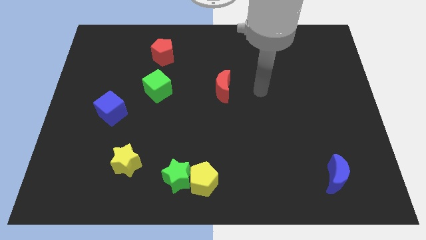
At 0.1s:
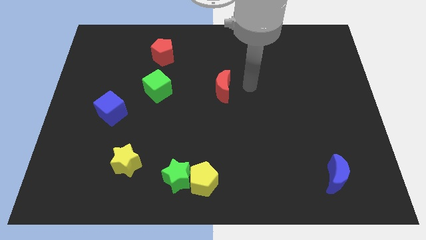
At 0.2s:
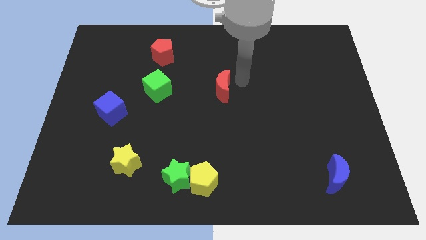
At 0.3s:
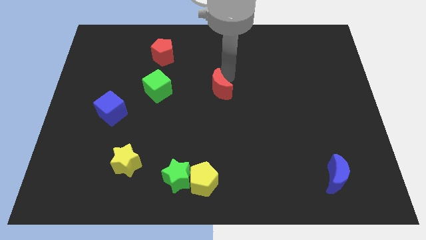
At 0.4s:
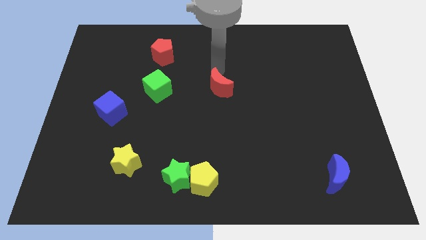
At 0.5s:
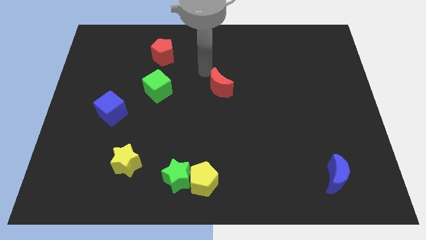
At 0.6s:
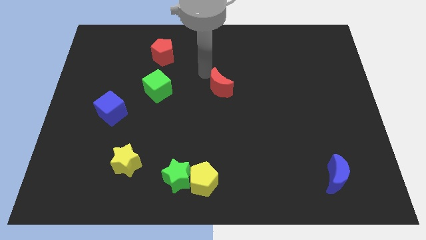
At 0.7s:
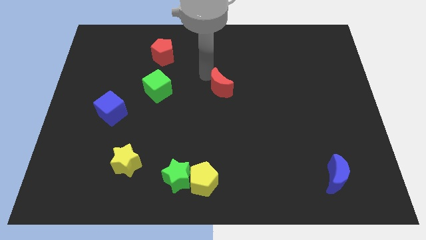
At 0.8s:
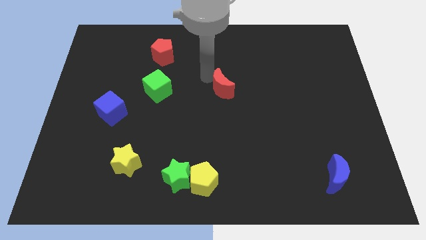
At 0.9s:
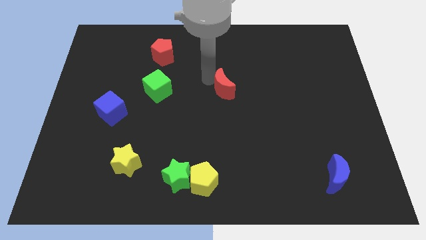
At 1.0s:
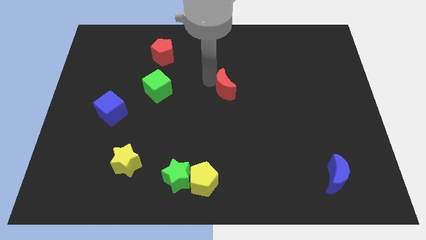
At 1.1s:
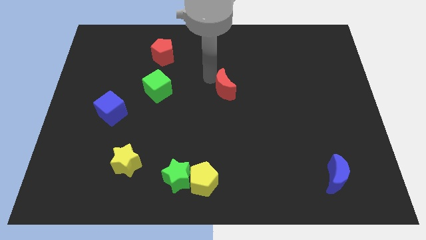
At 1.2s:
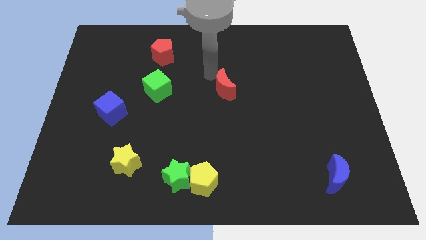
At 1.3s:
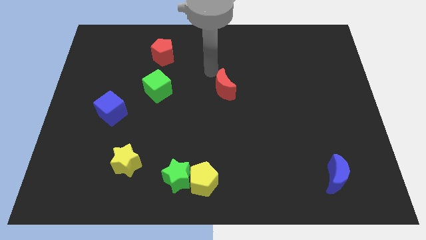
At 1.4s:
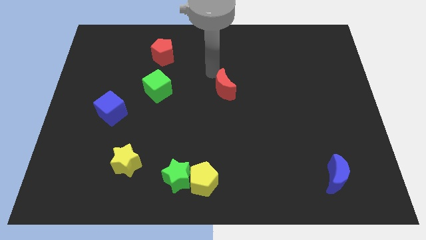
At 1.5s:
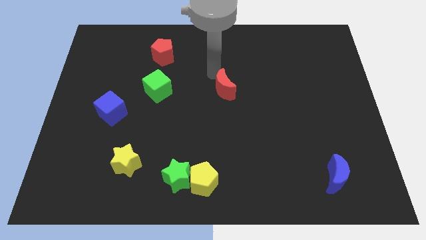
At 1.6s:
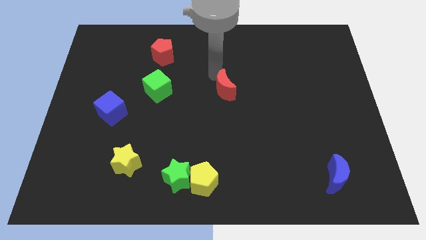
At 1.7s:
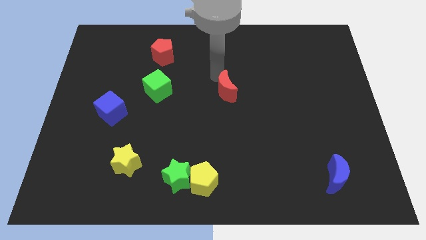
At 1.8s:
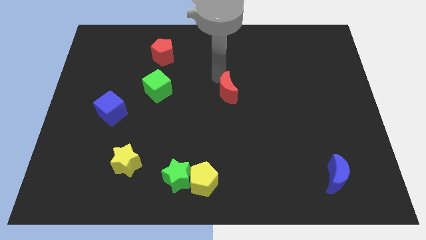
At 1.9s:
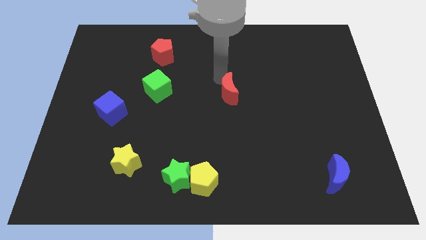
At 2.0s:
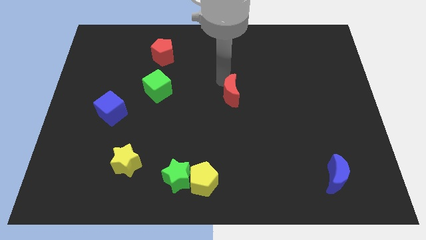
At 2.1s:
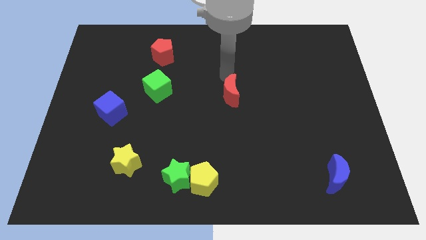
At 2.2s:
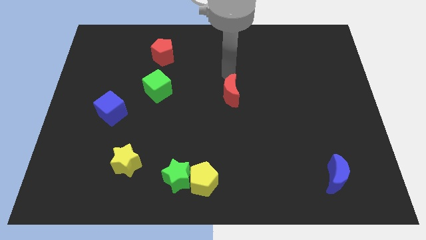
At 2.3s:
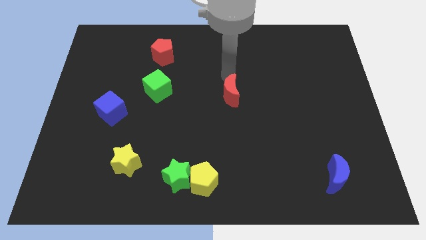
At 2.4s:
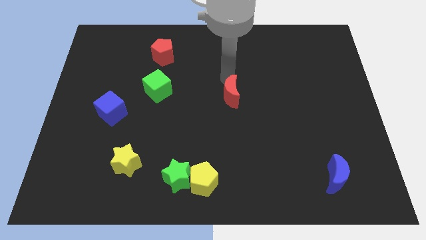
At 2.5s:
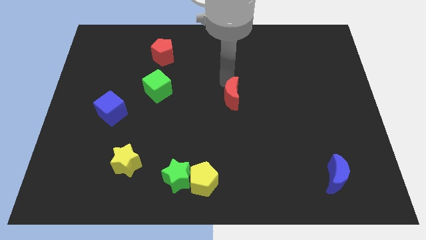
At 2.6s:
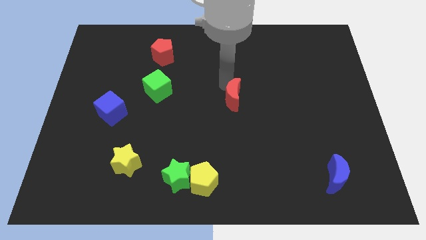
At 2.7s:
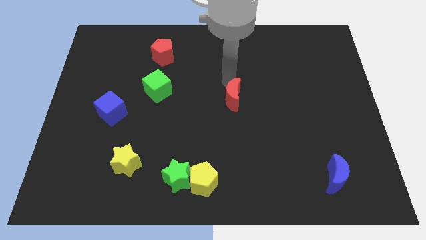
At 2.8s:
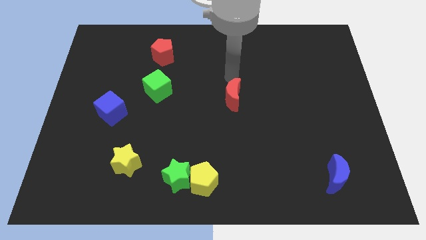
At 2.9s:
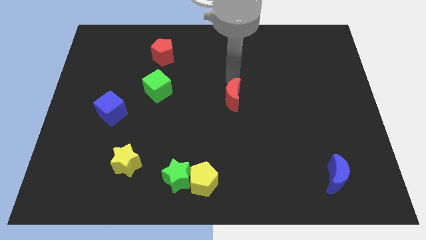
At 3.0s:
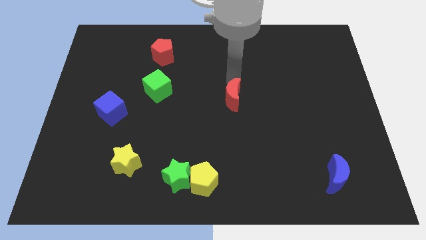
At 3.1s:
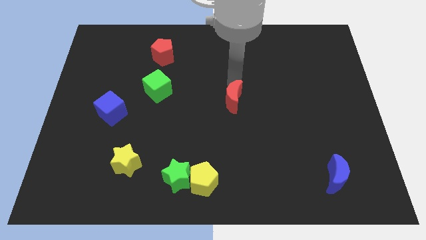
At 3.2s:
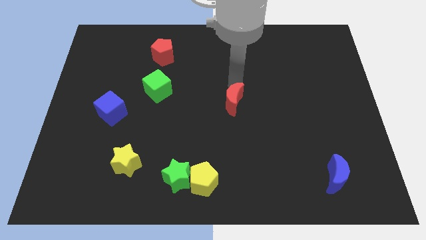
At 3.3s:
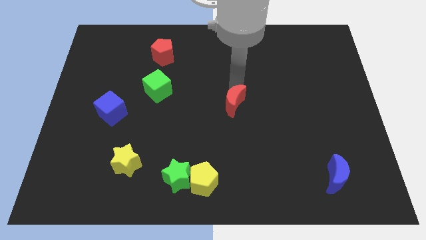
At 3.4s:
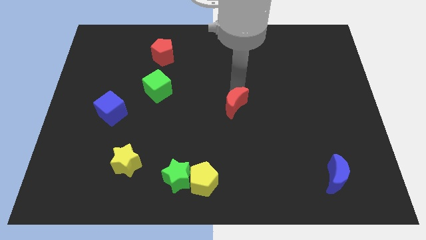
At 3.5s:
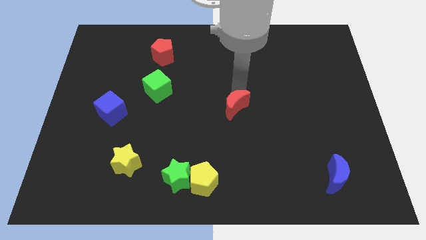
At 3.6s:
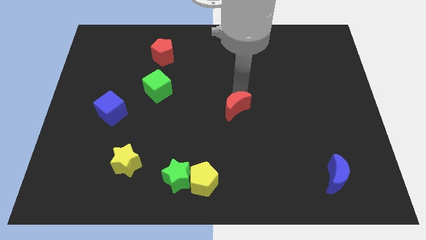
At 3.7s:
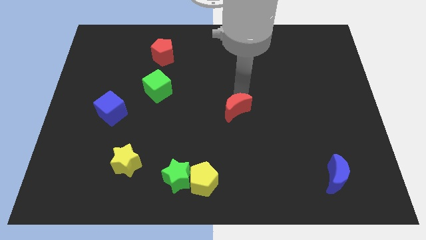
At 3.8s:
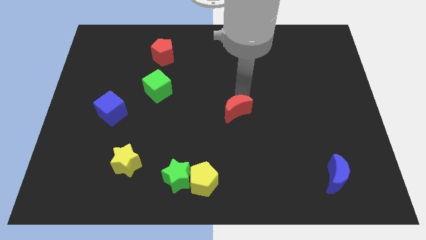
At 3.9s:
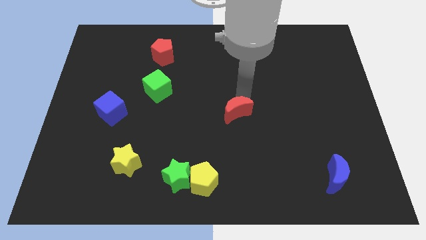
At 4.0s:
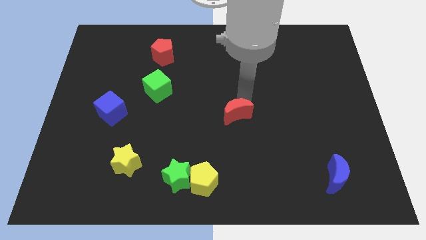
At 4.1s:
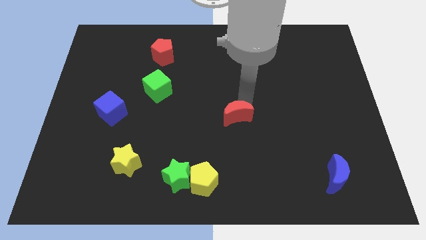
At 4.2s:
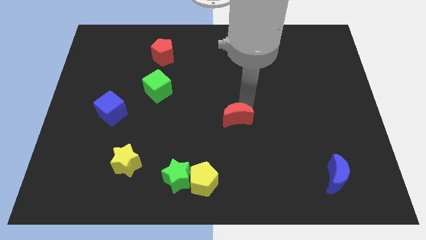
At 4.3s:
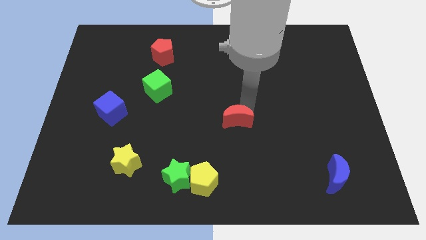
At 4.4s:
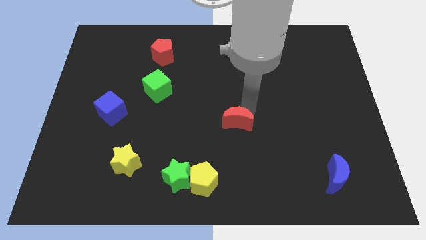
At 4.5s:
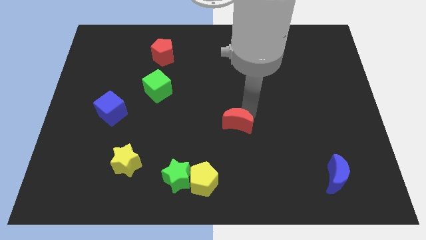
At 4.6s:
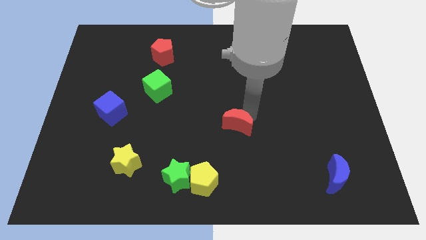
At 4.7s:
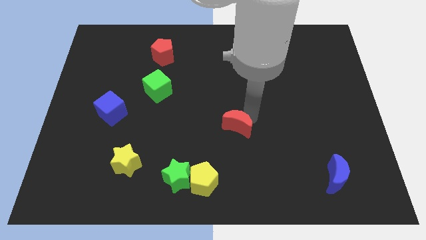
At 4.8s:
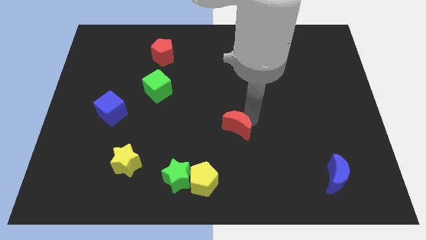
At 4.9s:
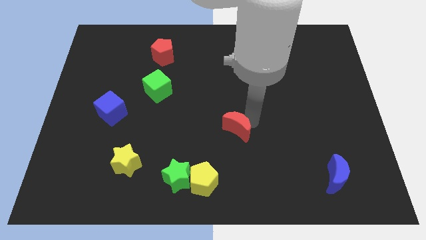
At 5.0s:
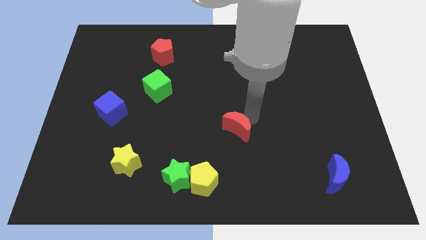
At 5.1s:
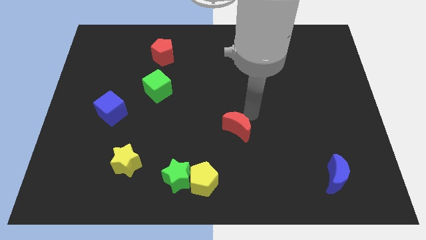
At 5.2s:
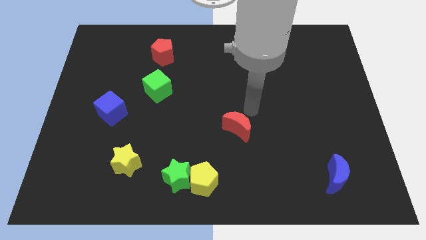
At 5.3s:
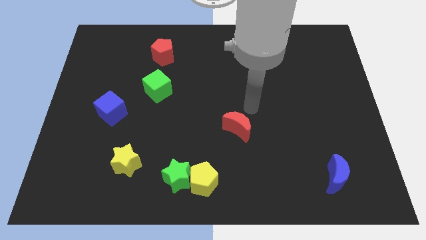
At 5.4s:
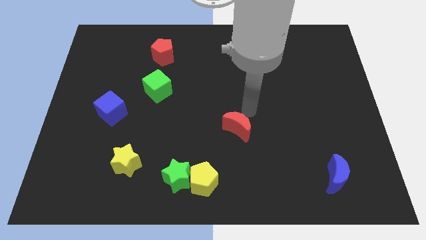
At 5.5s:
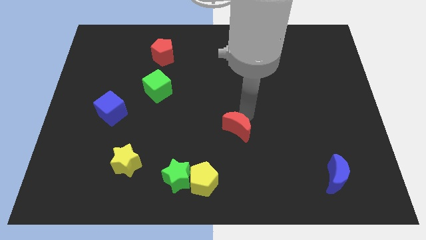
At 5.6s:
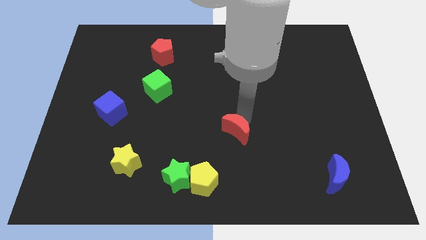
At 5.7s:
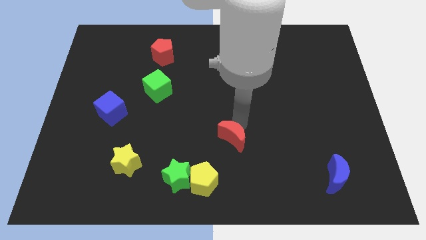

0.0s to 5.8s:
put the red moon diagonally up and to the right of the yellow pentagon

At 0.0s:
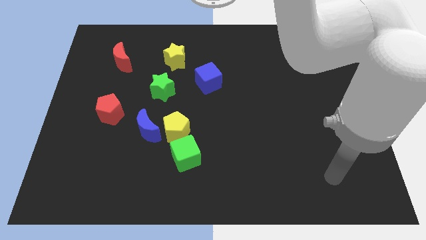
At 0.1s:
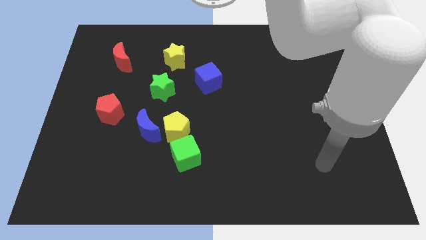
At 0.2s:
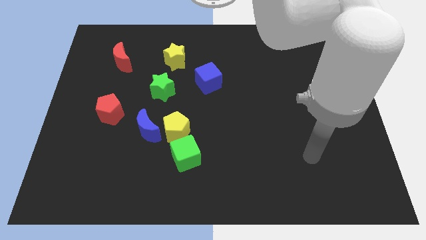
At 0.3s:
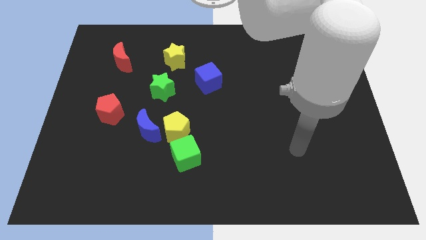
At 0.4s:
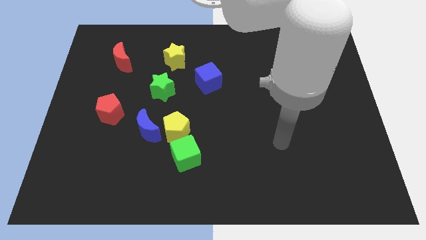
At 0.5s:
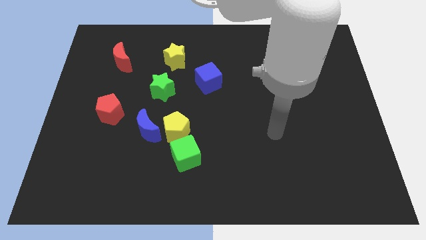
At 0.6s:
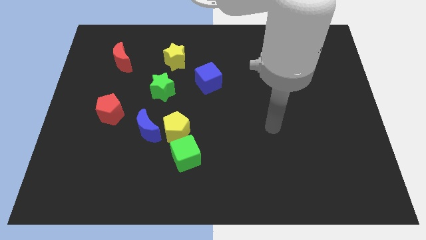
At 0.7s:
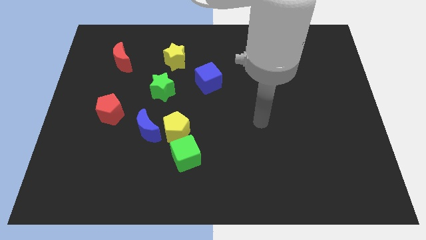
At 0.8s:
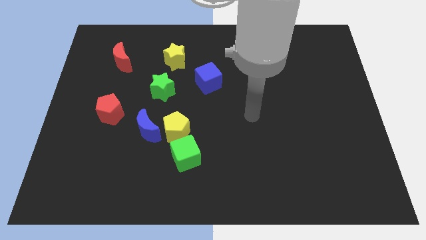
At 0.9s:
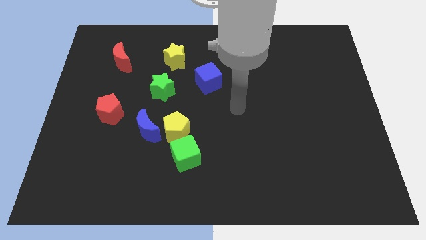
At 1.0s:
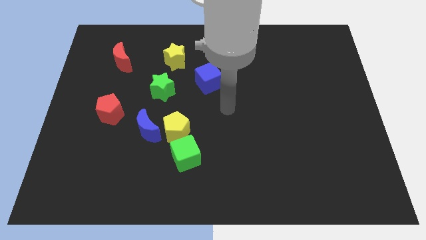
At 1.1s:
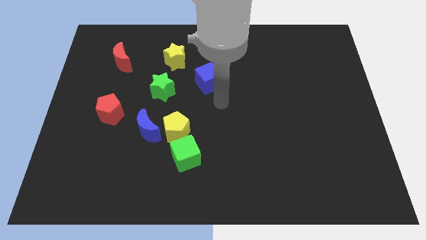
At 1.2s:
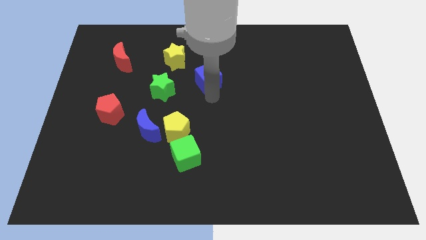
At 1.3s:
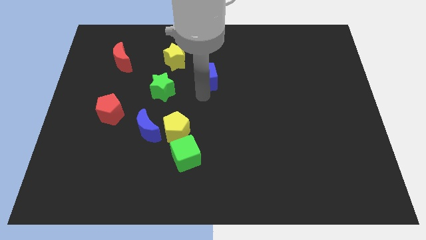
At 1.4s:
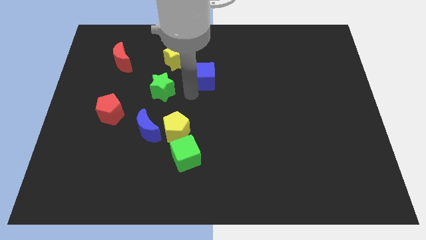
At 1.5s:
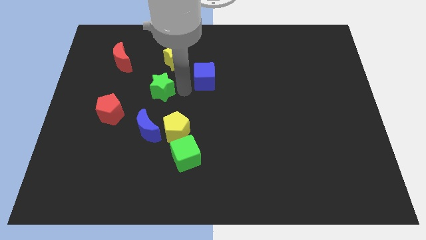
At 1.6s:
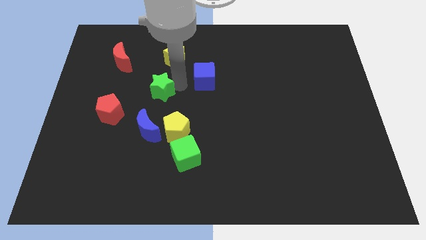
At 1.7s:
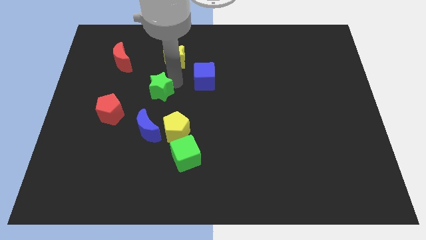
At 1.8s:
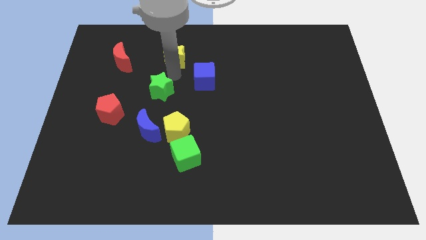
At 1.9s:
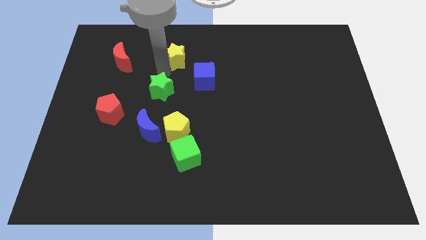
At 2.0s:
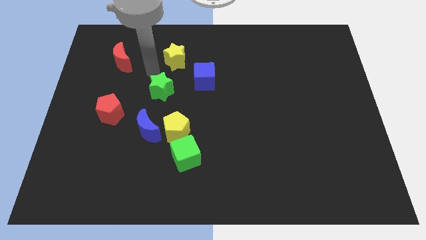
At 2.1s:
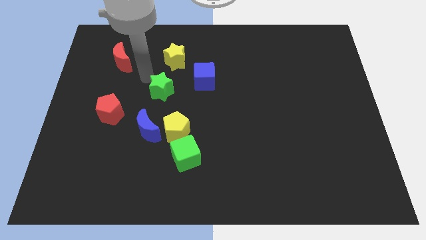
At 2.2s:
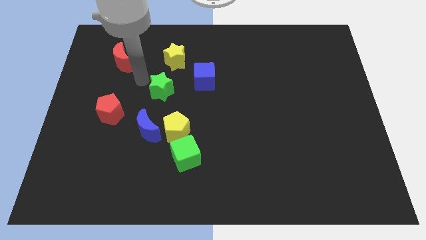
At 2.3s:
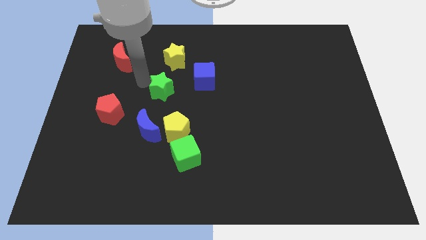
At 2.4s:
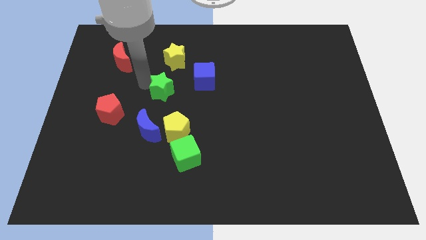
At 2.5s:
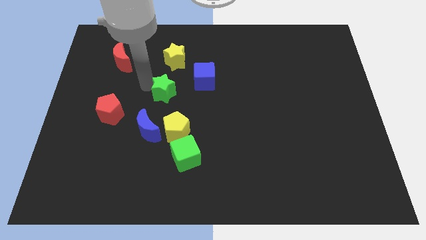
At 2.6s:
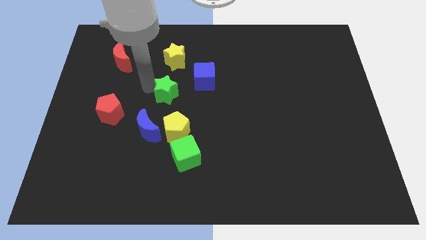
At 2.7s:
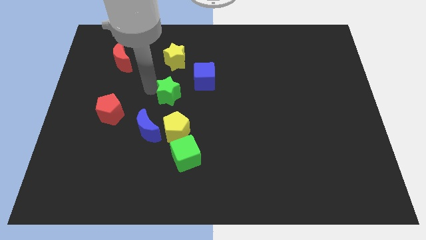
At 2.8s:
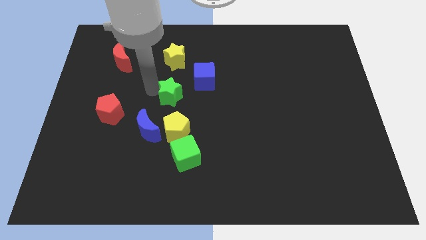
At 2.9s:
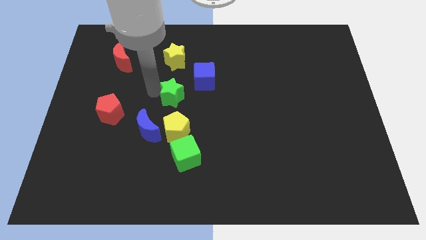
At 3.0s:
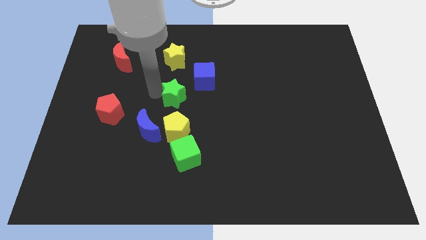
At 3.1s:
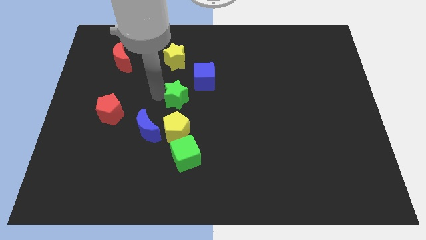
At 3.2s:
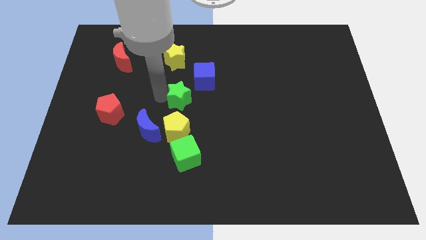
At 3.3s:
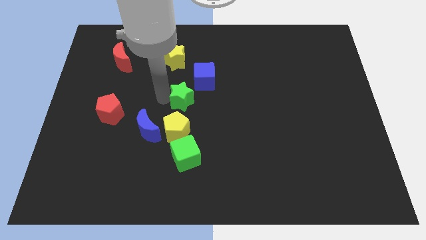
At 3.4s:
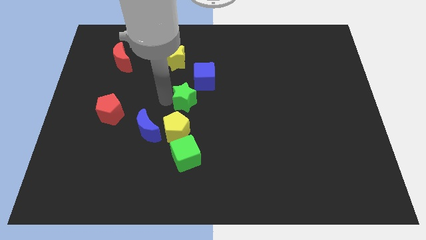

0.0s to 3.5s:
slide the green star to the bottom of the blue cube
